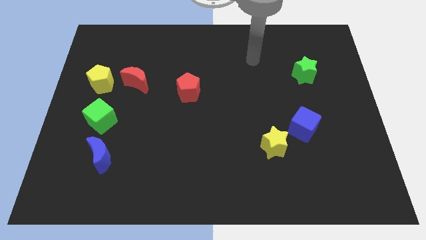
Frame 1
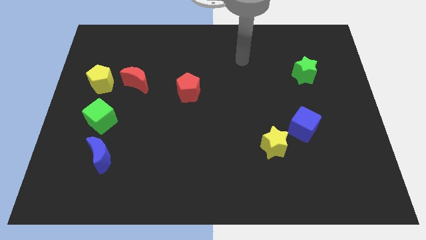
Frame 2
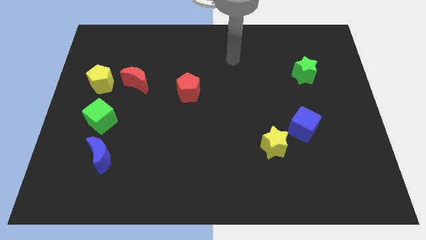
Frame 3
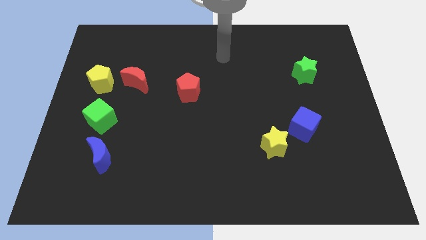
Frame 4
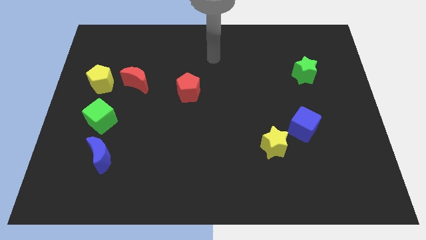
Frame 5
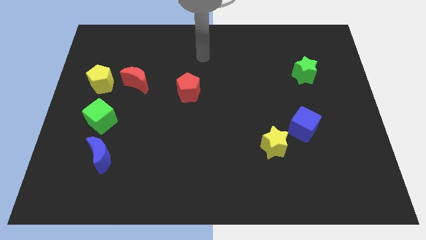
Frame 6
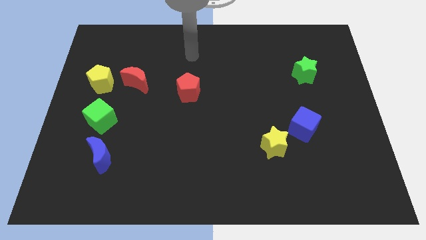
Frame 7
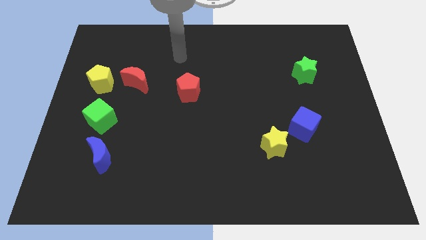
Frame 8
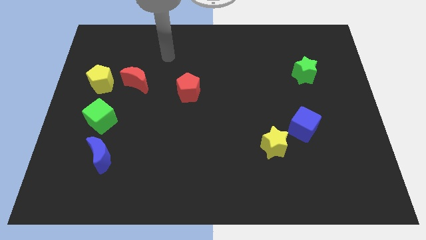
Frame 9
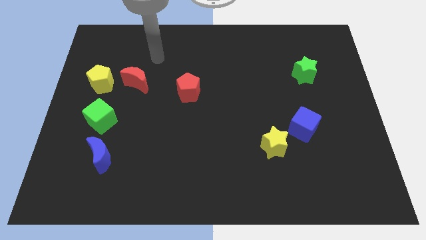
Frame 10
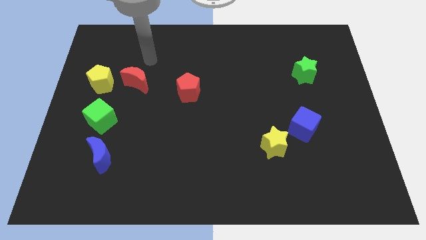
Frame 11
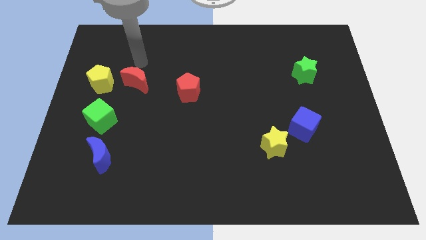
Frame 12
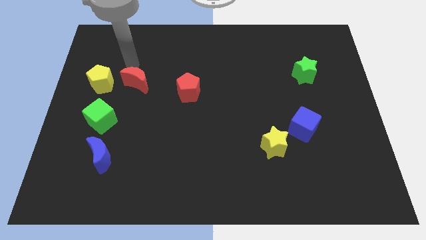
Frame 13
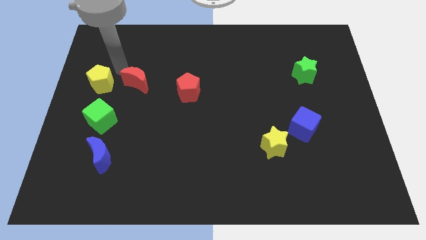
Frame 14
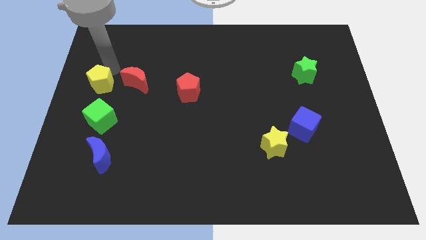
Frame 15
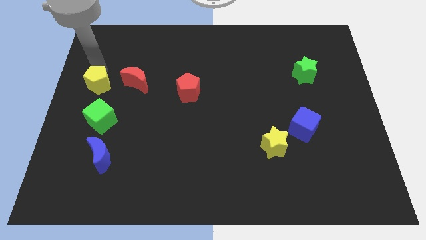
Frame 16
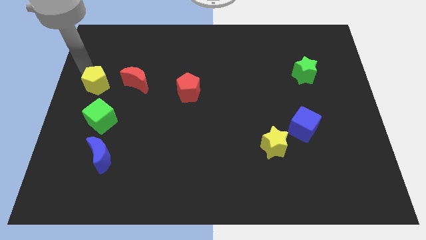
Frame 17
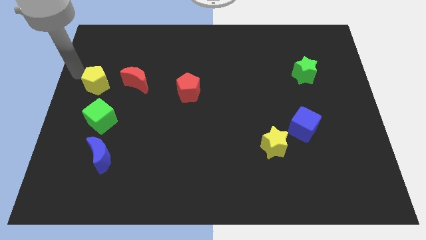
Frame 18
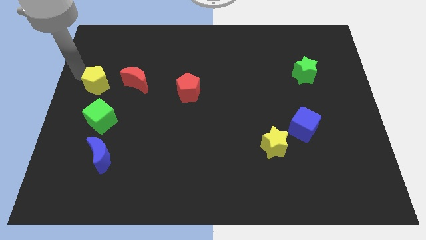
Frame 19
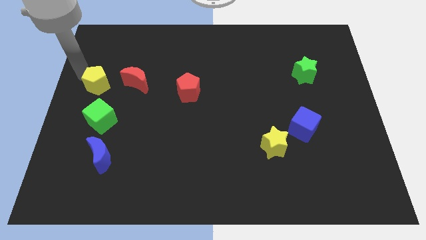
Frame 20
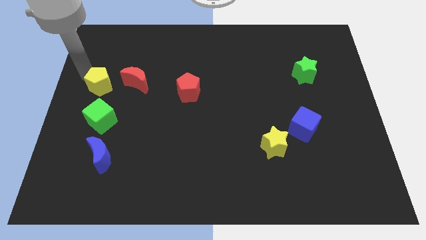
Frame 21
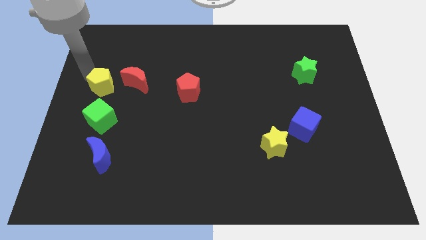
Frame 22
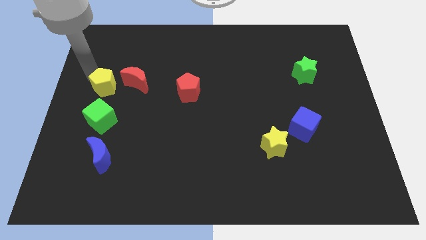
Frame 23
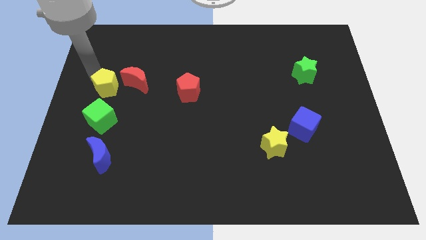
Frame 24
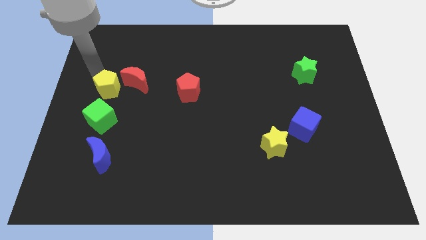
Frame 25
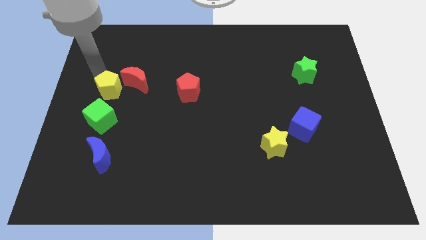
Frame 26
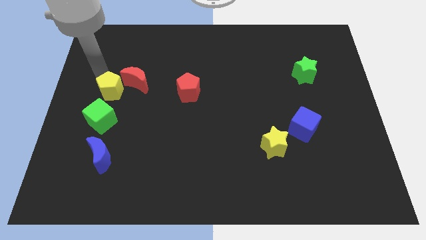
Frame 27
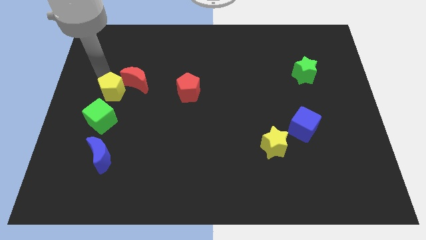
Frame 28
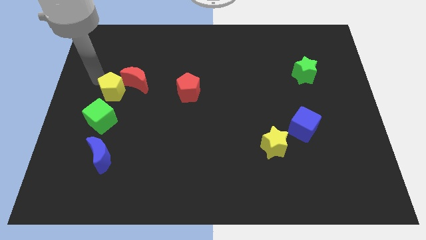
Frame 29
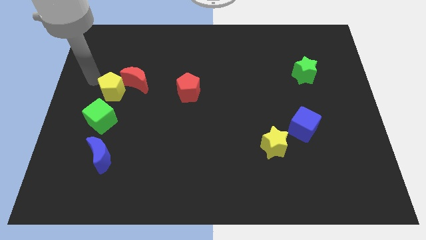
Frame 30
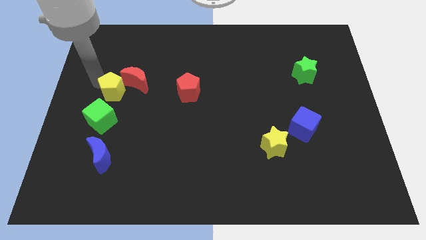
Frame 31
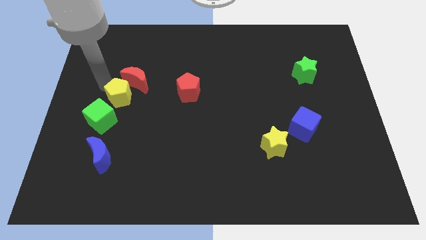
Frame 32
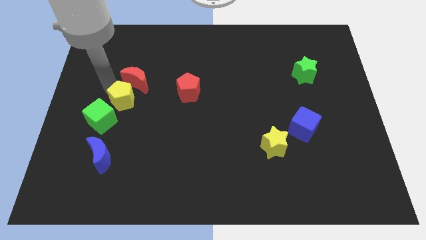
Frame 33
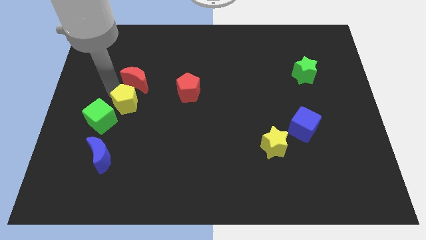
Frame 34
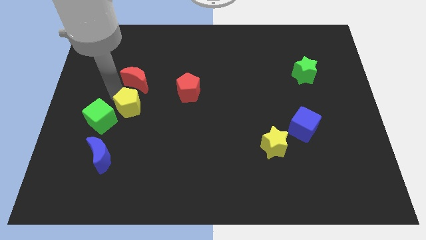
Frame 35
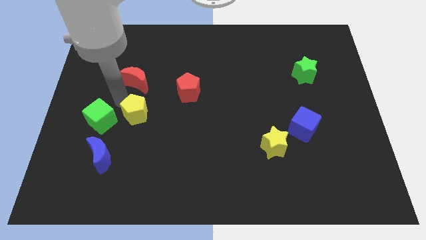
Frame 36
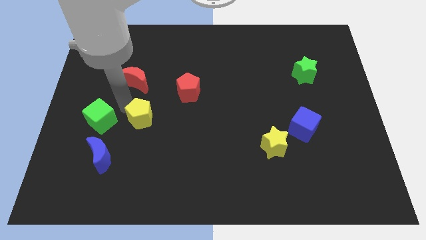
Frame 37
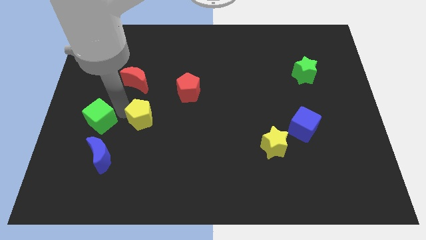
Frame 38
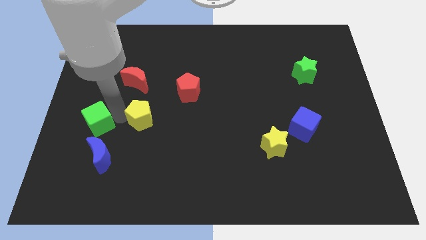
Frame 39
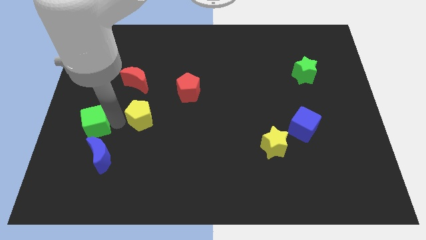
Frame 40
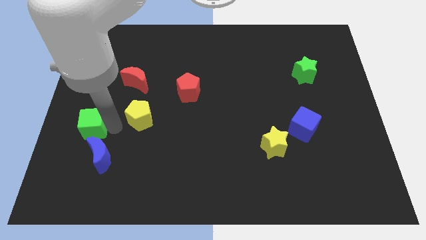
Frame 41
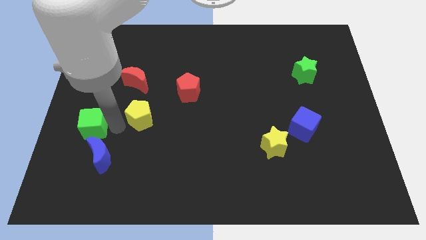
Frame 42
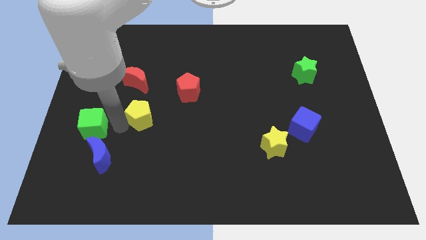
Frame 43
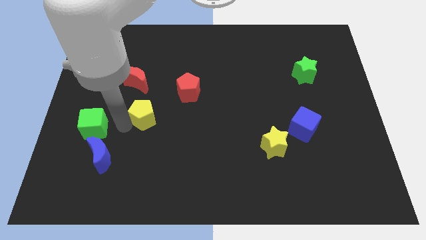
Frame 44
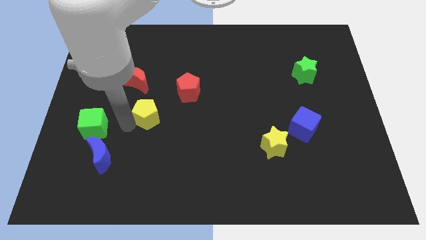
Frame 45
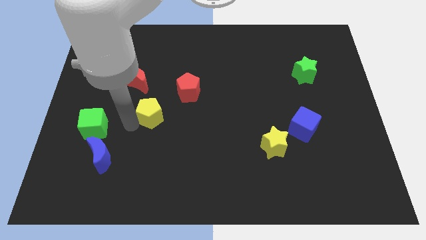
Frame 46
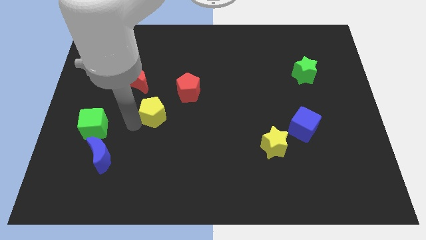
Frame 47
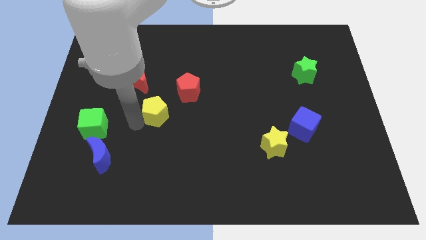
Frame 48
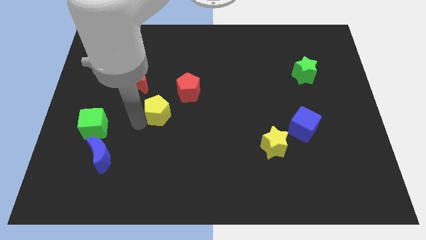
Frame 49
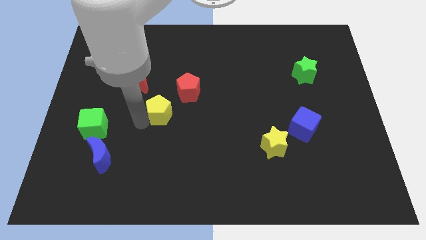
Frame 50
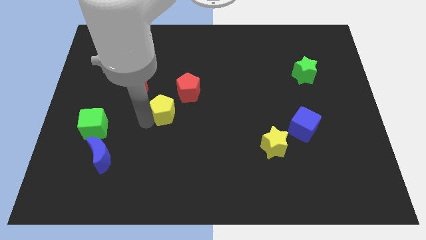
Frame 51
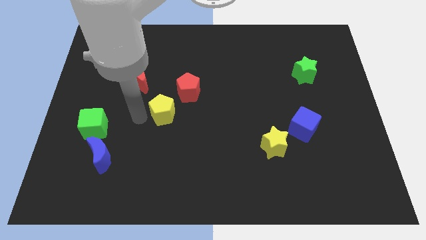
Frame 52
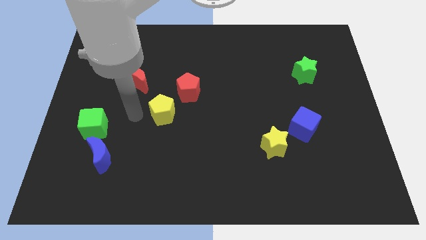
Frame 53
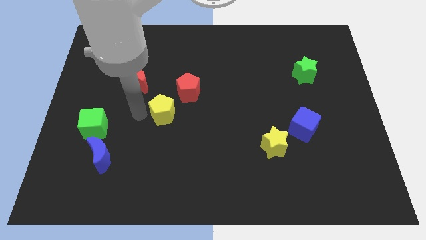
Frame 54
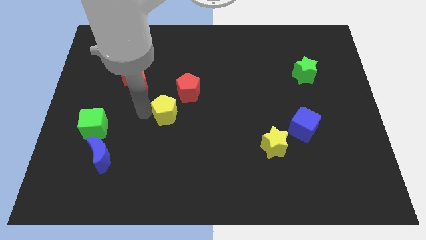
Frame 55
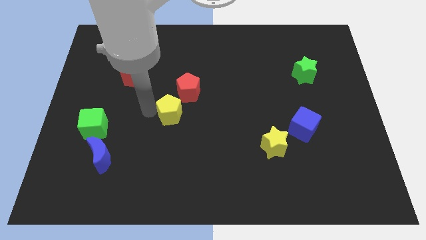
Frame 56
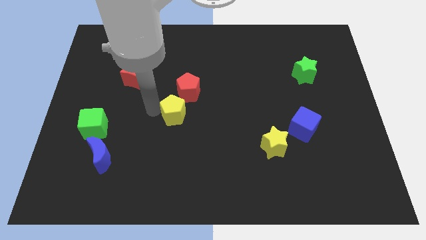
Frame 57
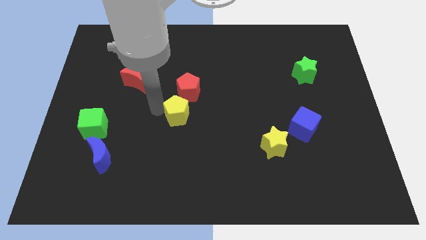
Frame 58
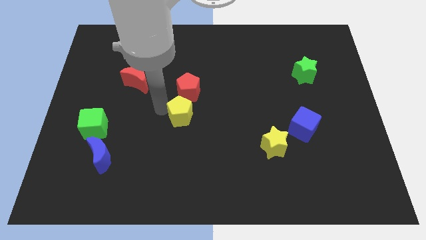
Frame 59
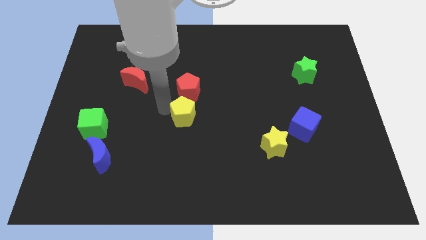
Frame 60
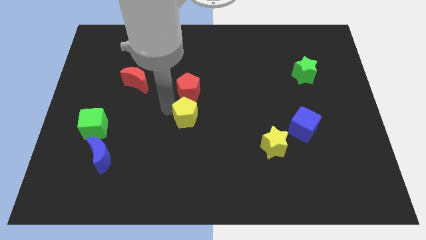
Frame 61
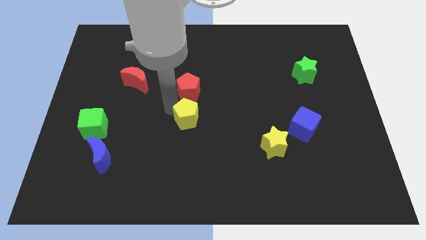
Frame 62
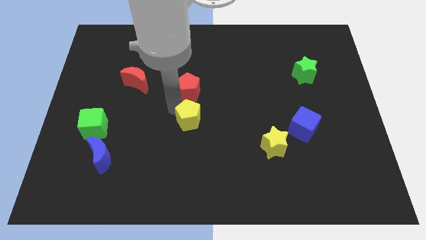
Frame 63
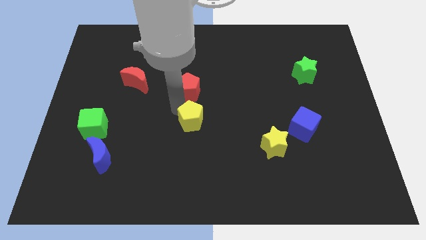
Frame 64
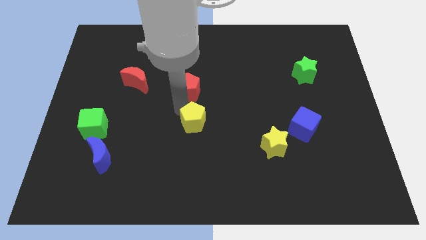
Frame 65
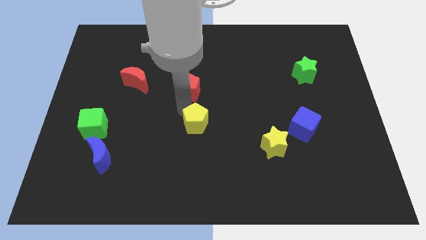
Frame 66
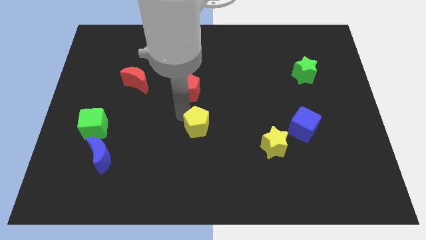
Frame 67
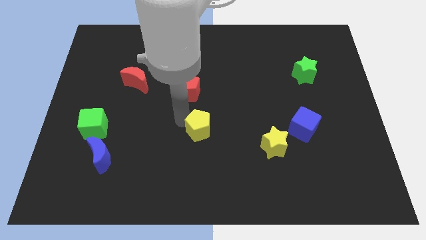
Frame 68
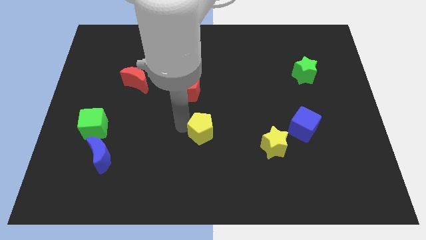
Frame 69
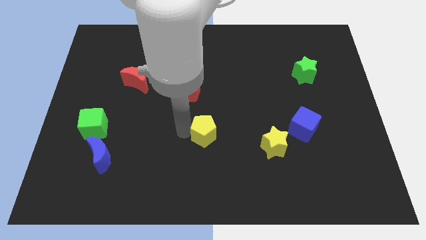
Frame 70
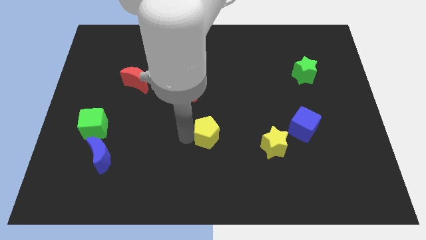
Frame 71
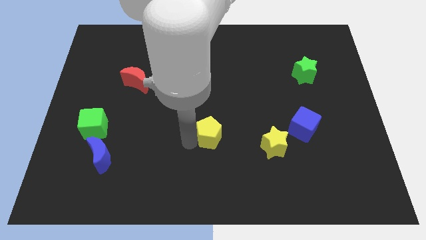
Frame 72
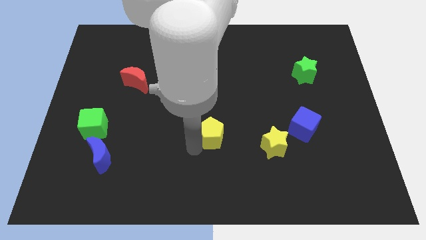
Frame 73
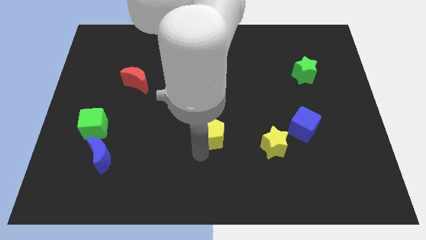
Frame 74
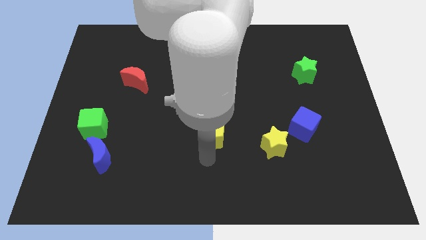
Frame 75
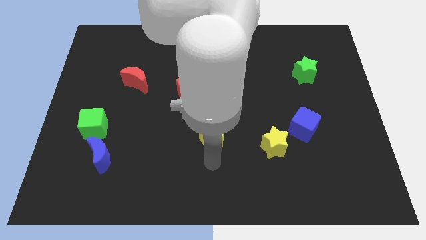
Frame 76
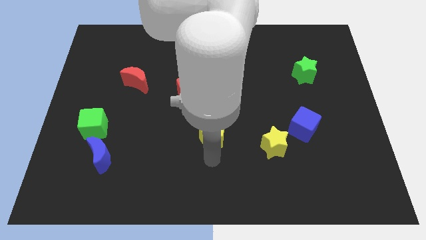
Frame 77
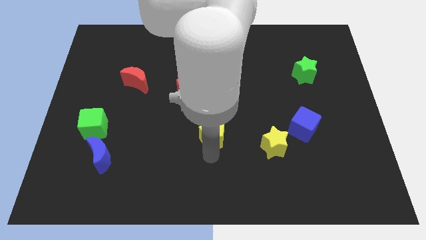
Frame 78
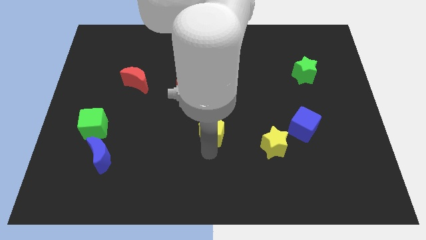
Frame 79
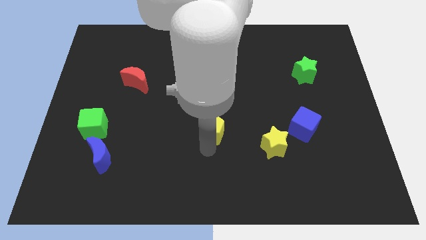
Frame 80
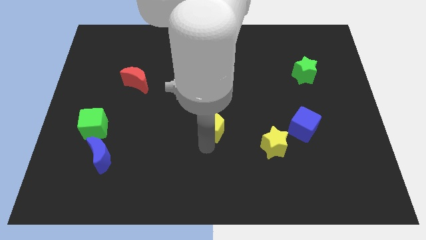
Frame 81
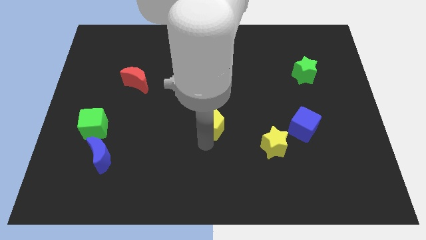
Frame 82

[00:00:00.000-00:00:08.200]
slide the yellow pentagon diagonally down and to the right of the red pentagon
